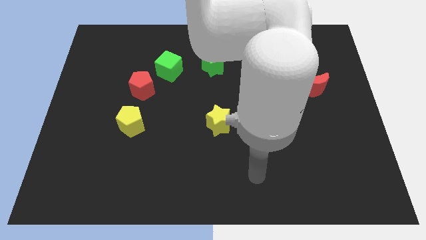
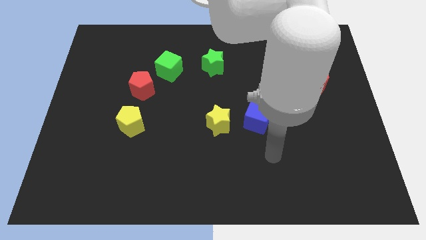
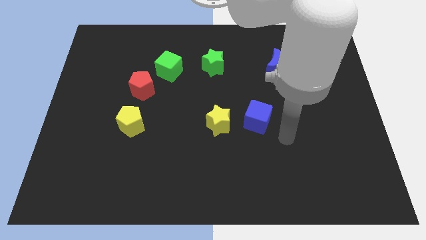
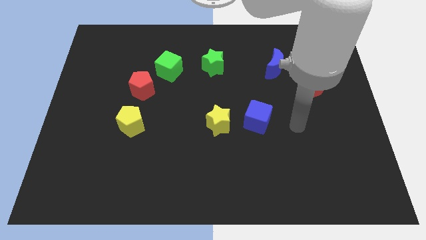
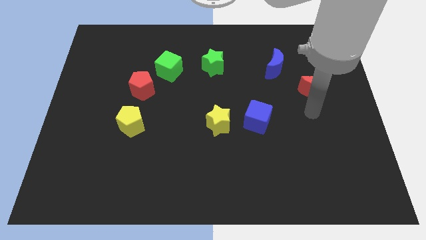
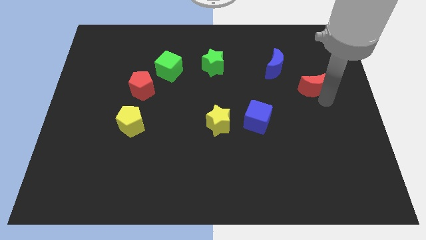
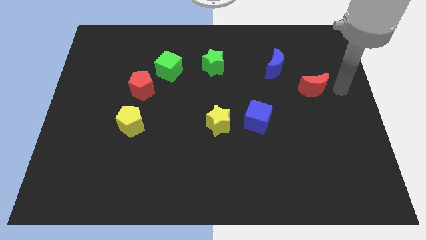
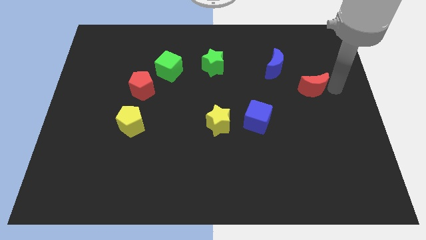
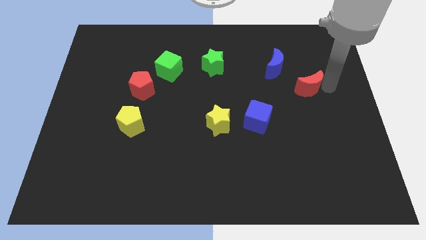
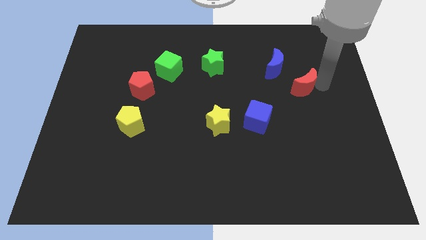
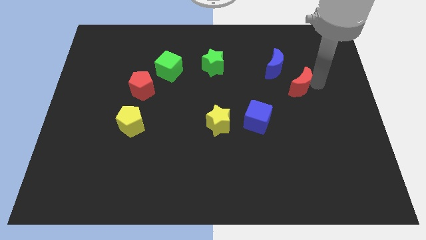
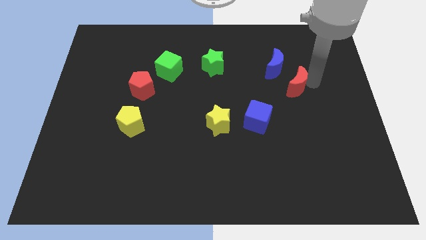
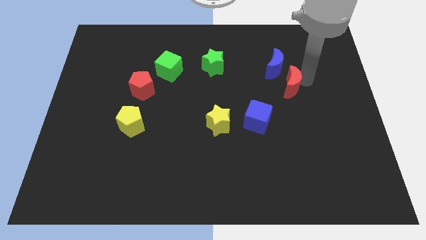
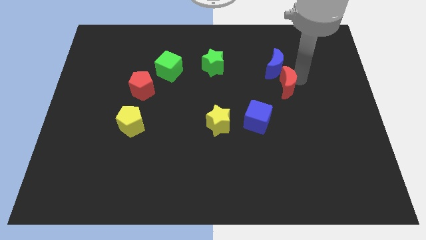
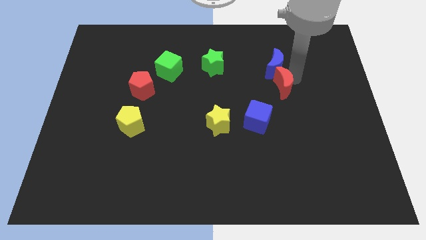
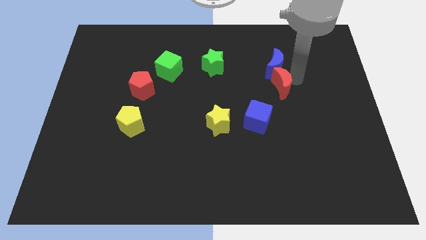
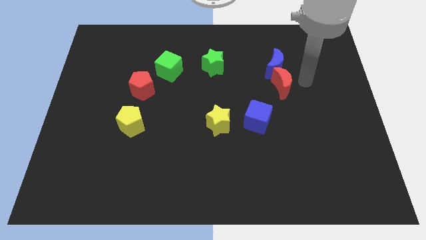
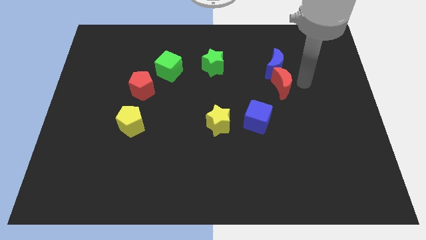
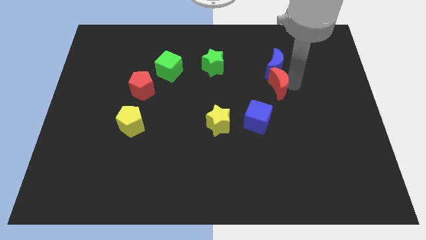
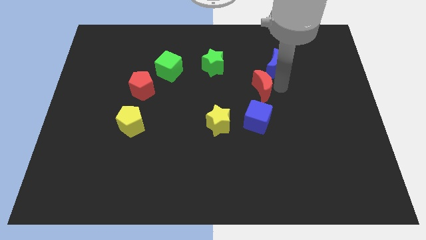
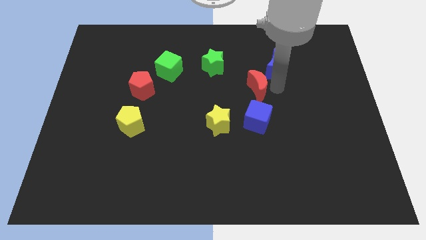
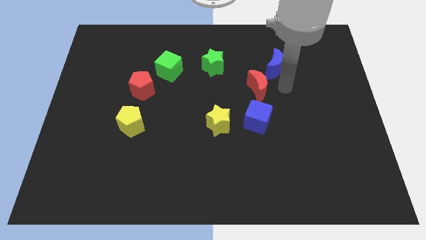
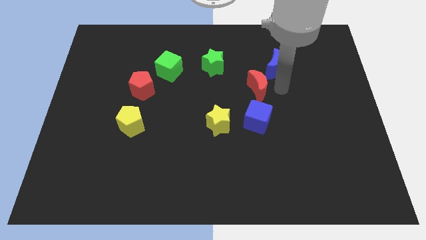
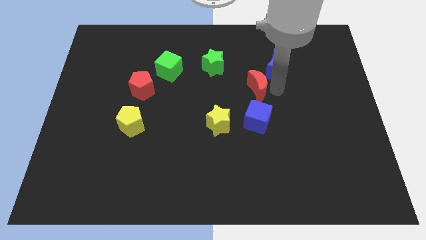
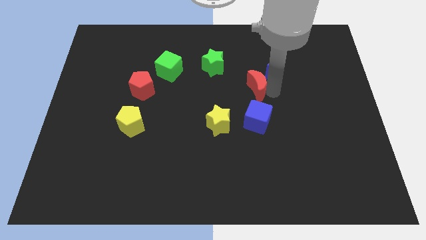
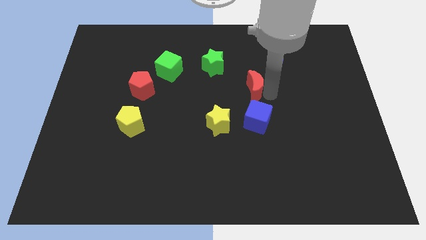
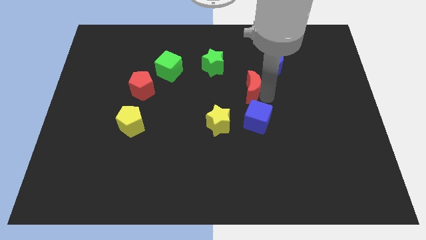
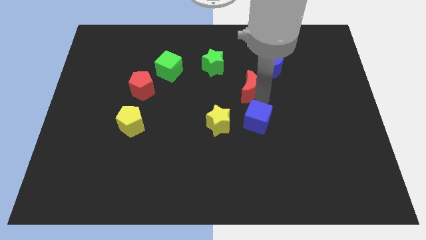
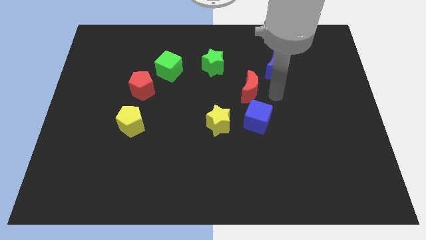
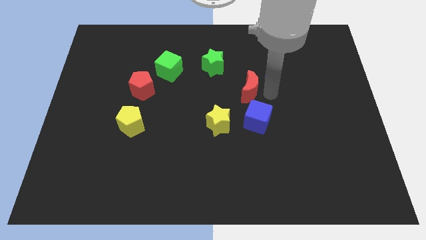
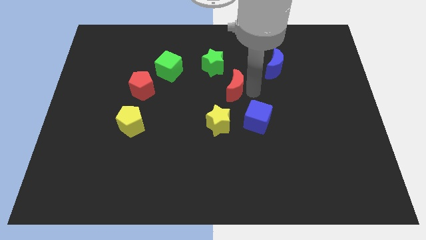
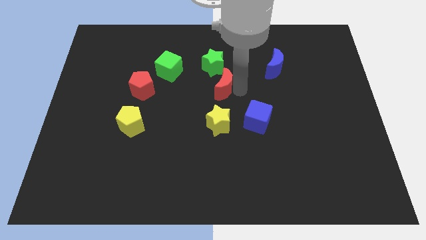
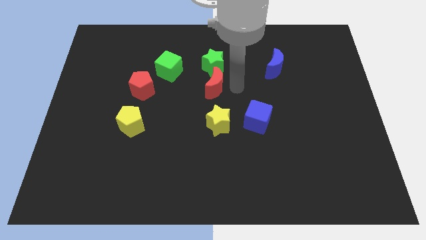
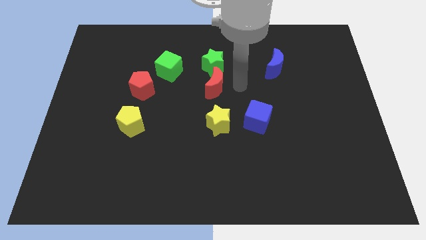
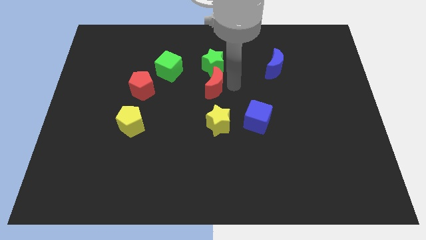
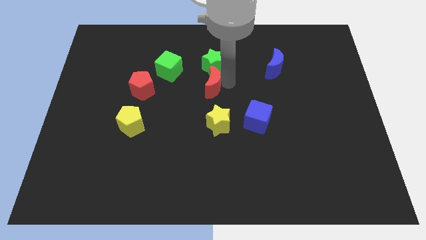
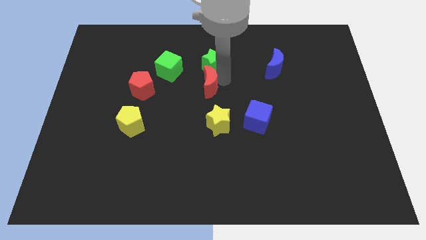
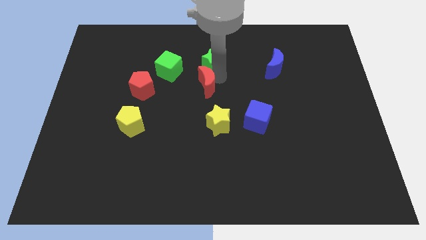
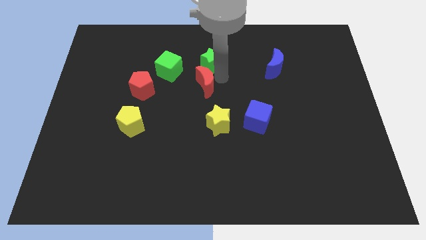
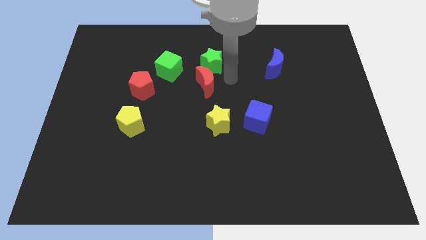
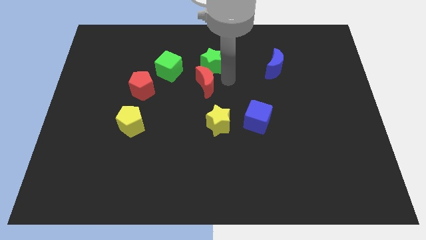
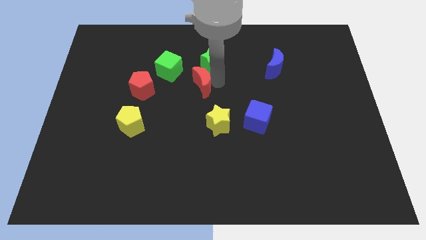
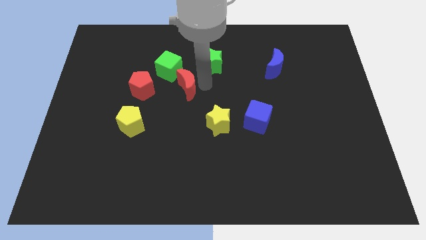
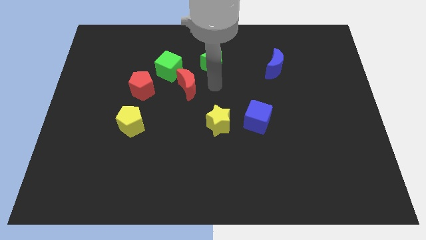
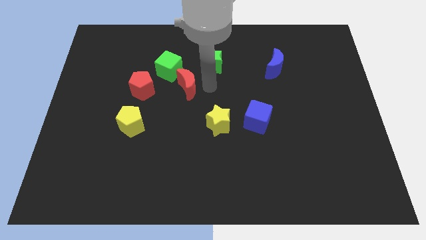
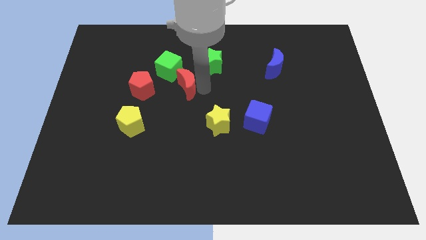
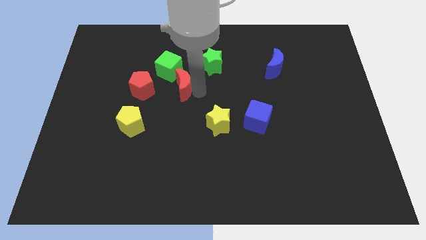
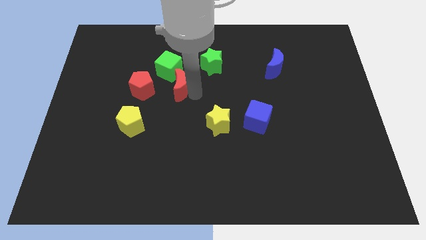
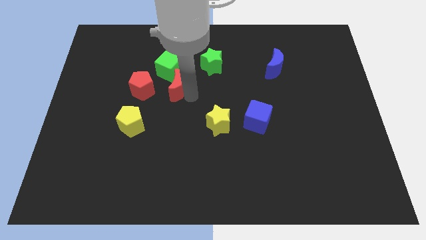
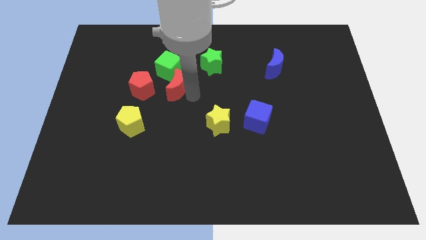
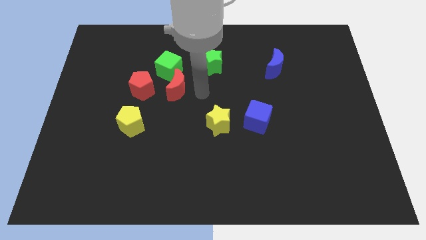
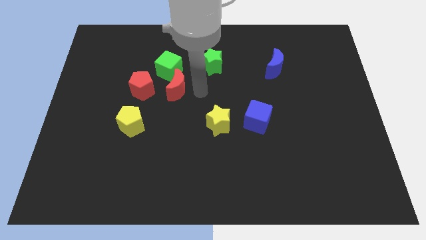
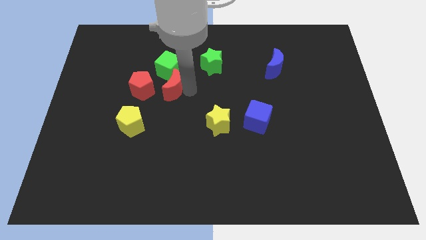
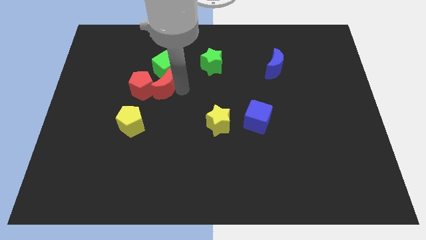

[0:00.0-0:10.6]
push the red moon to the red pentagon

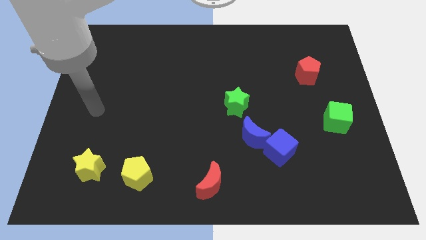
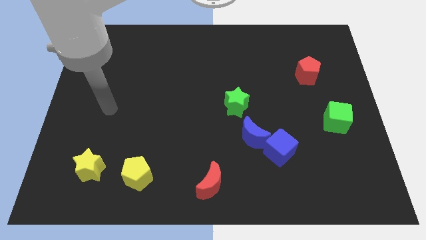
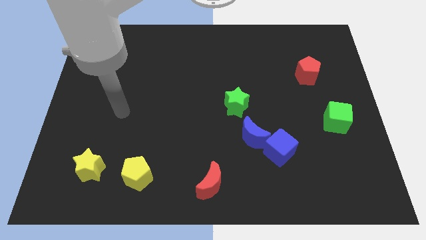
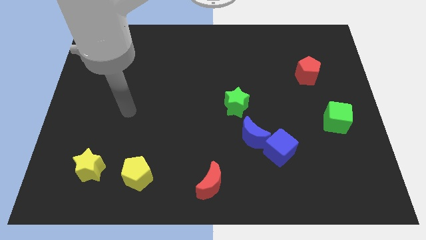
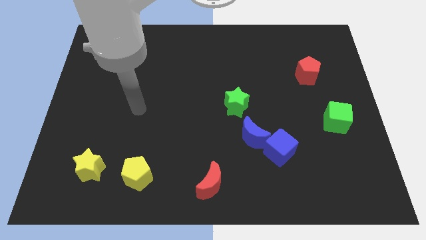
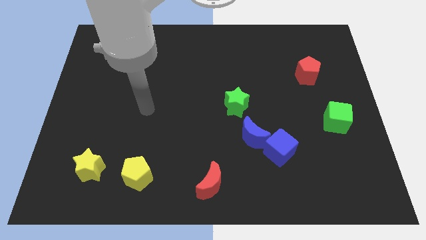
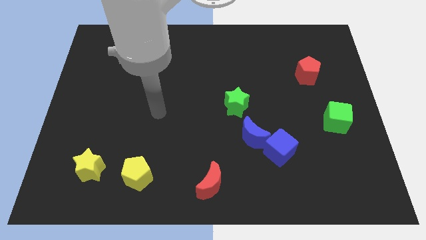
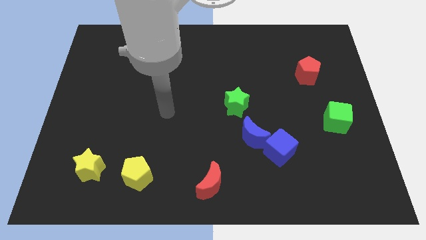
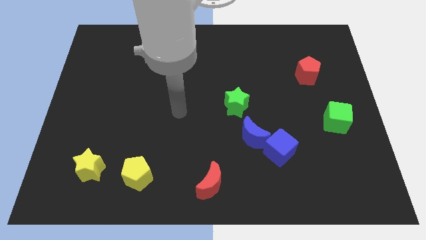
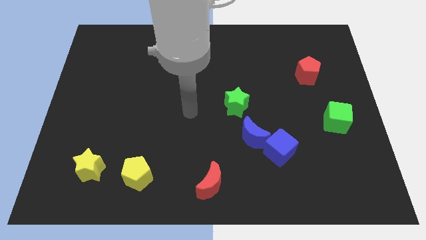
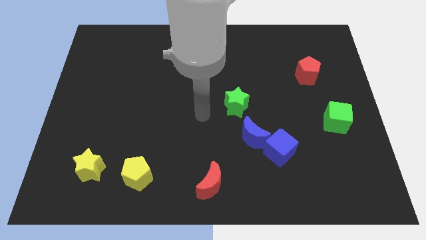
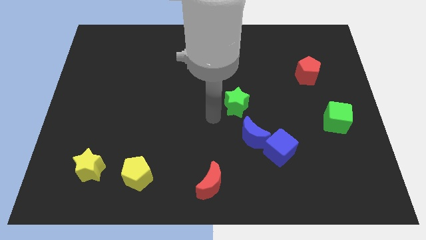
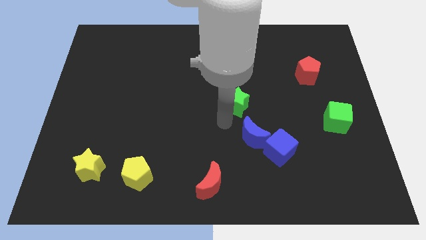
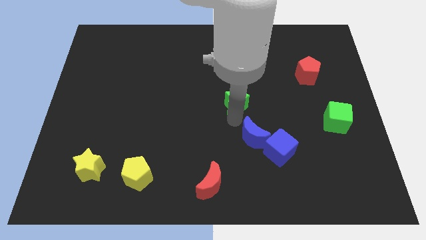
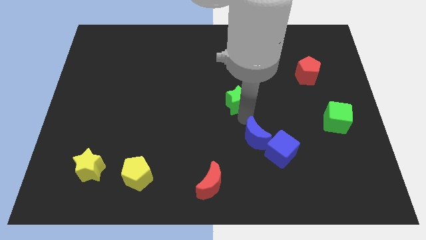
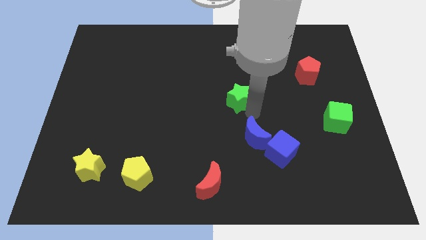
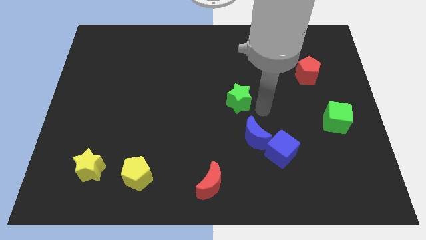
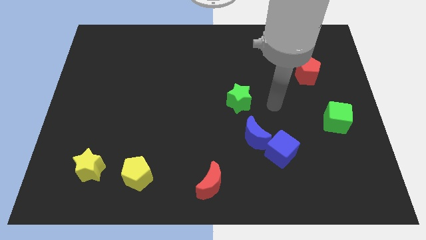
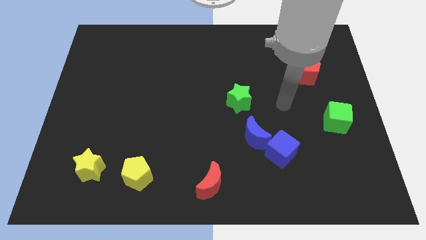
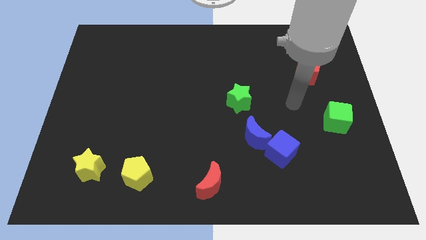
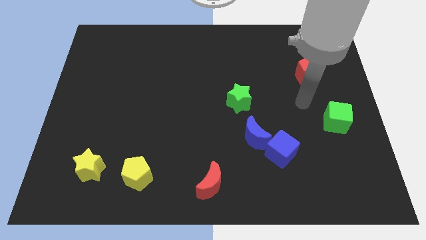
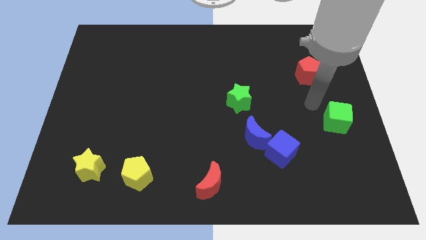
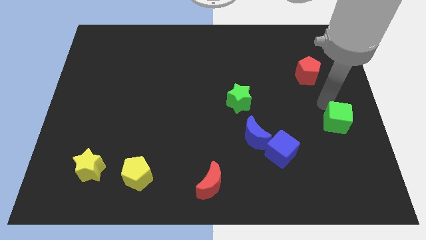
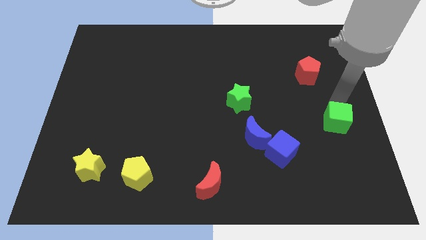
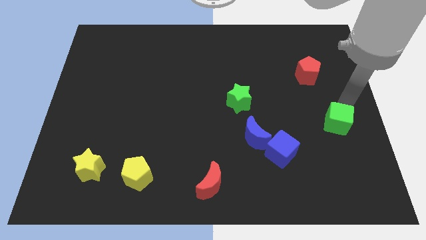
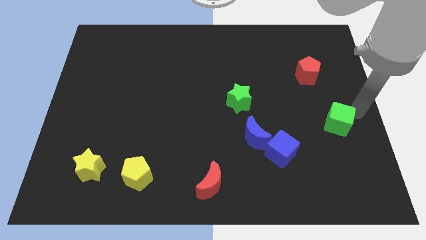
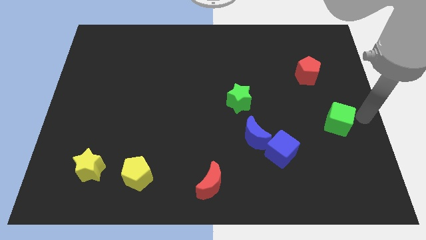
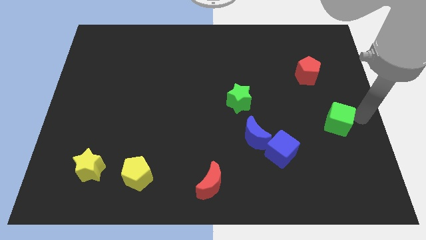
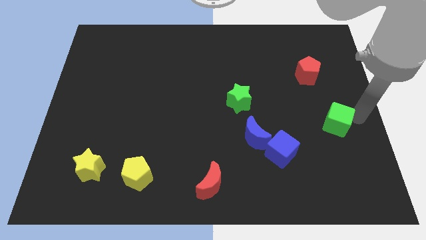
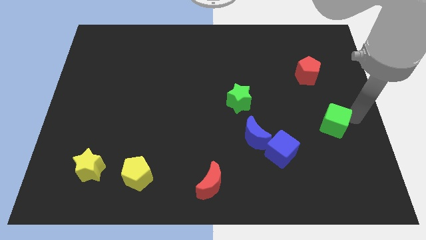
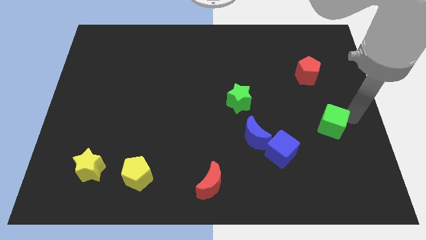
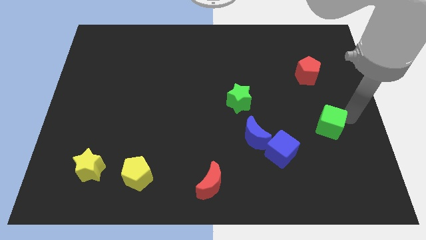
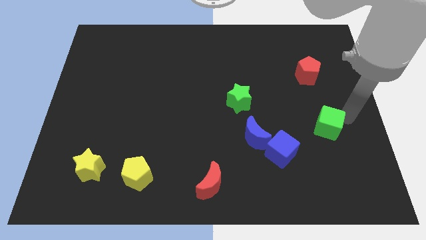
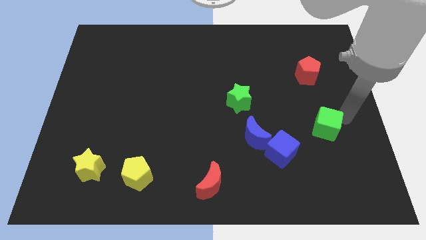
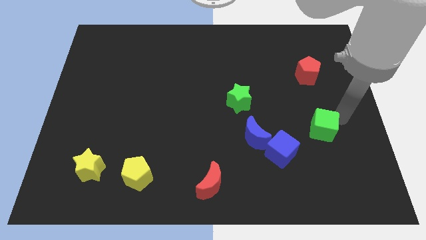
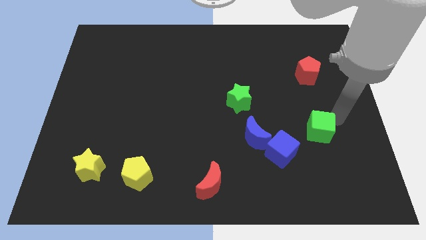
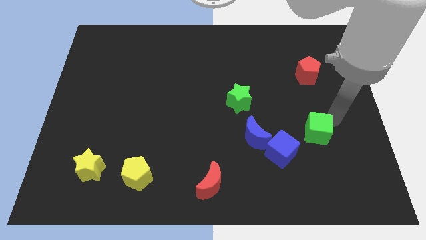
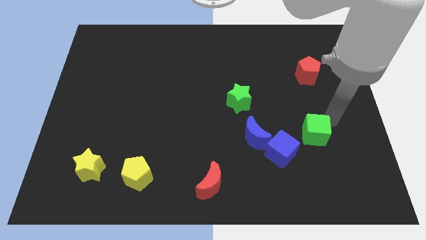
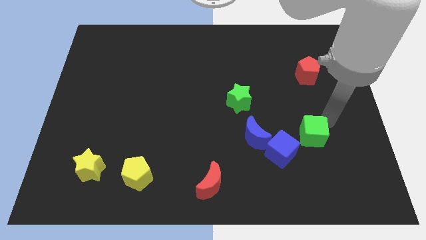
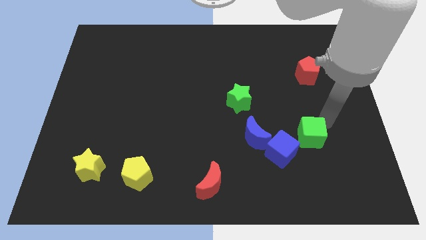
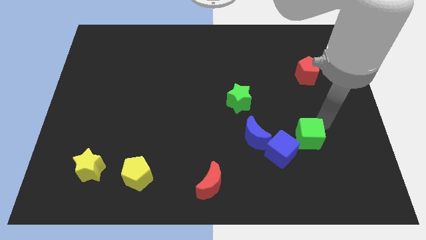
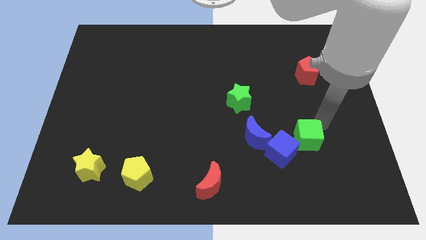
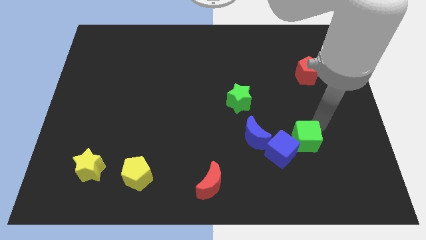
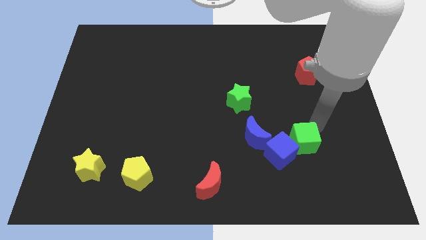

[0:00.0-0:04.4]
move the green cube to the blue cube
